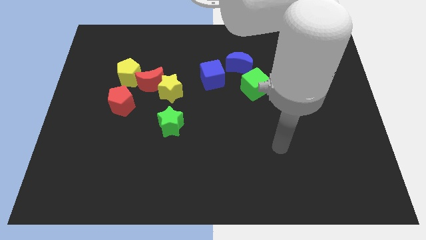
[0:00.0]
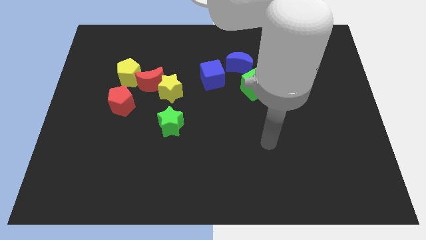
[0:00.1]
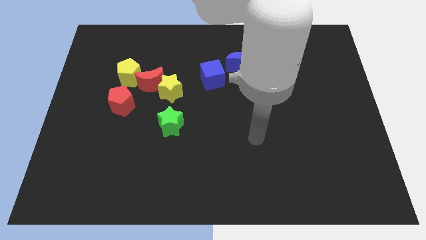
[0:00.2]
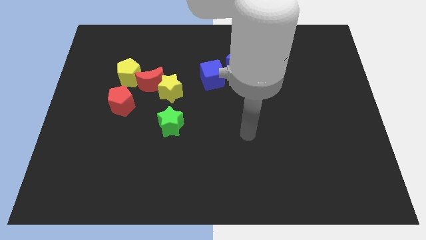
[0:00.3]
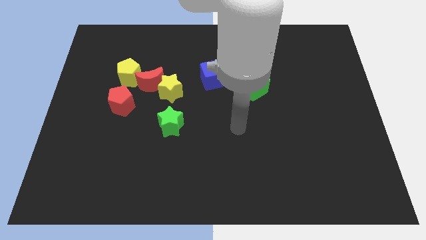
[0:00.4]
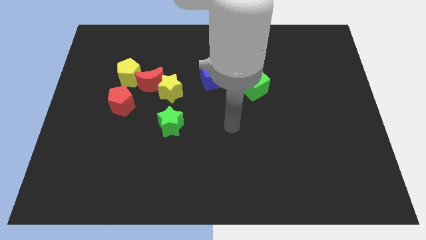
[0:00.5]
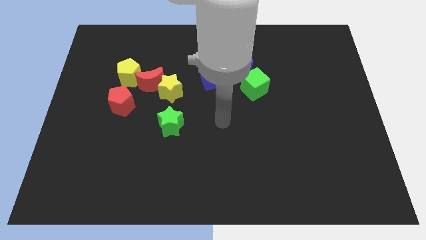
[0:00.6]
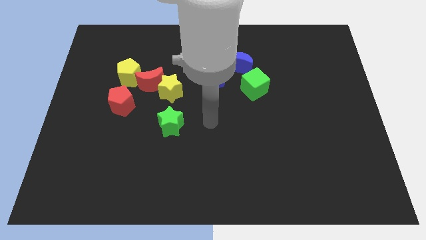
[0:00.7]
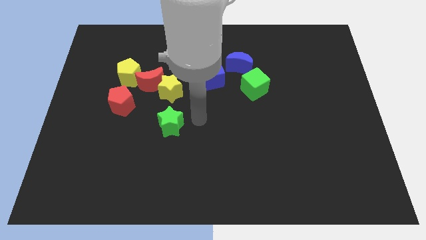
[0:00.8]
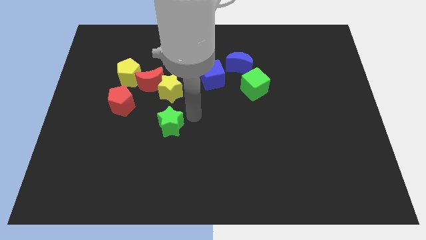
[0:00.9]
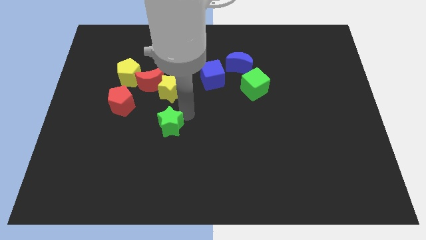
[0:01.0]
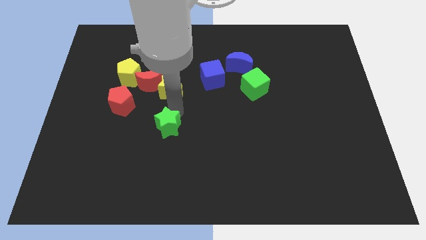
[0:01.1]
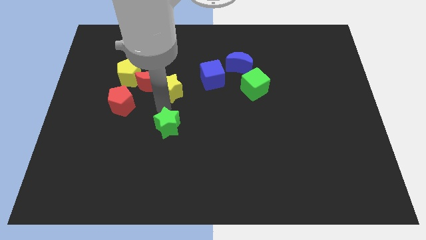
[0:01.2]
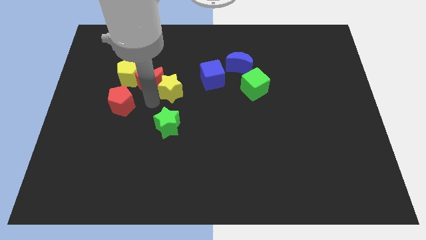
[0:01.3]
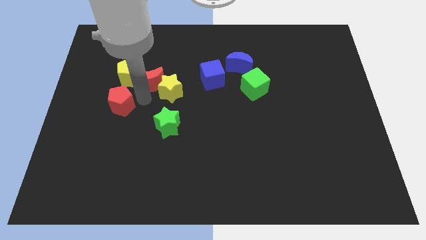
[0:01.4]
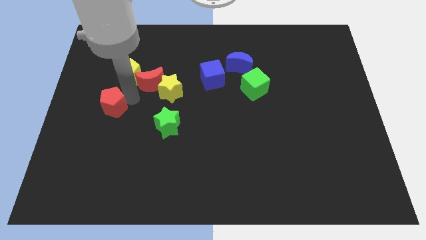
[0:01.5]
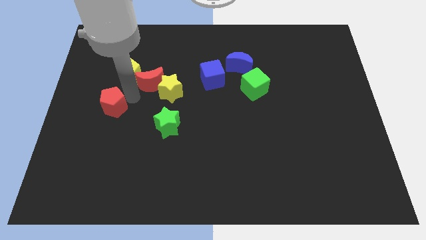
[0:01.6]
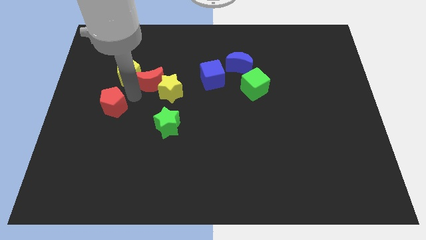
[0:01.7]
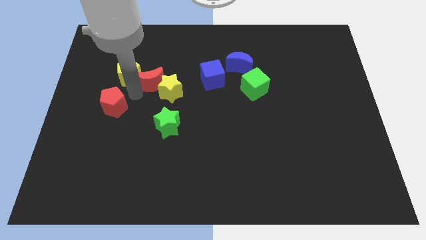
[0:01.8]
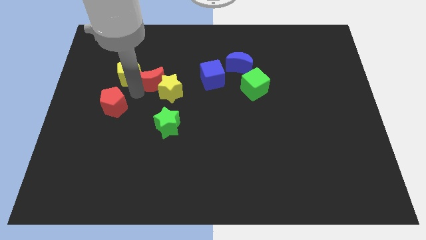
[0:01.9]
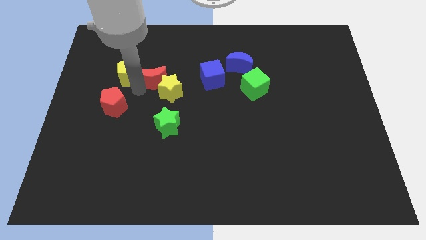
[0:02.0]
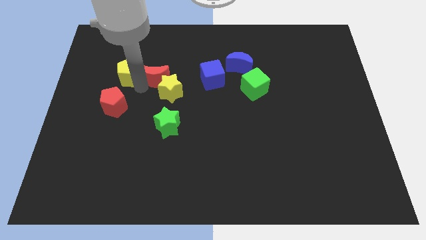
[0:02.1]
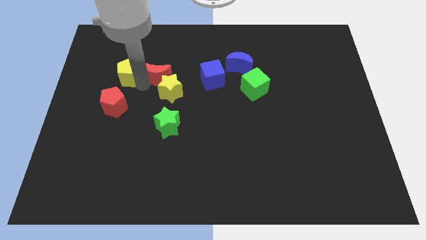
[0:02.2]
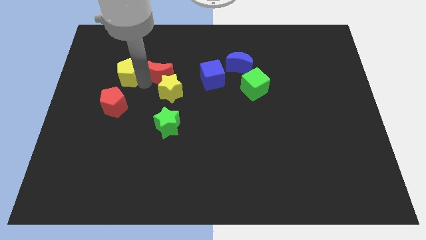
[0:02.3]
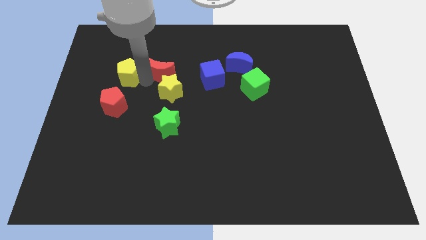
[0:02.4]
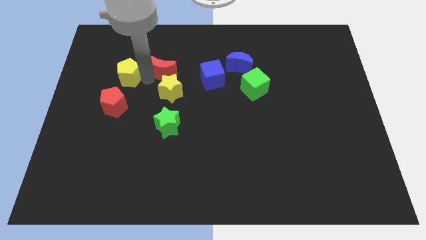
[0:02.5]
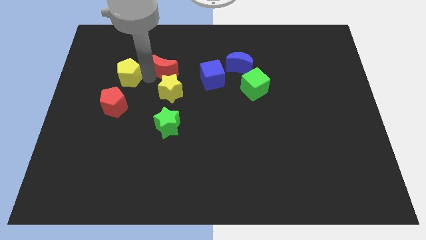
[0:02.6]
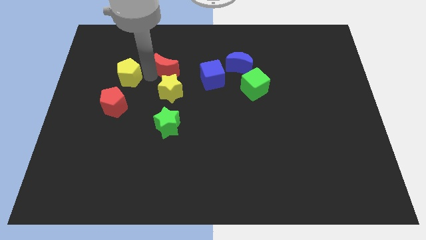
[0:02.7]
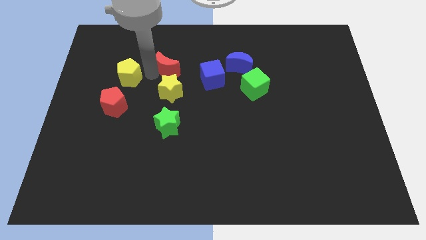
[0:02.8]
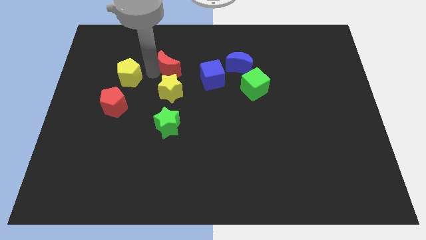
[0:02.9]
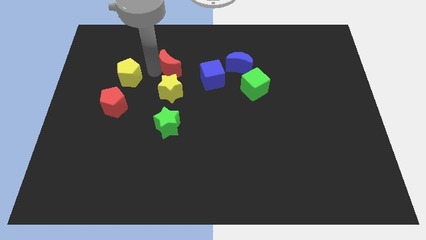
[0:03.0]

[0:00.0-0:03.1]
move the red moon away from the group of blocks

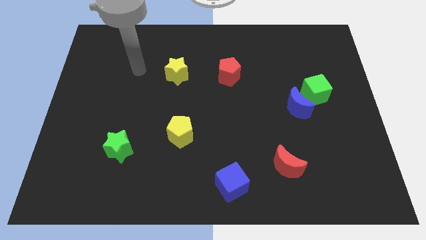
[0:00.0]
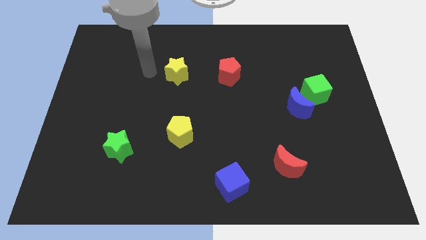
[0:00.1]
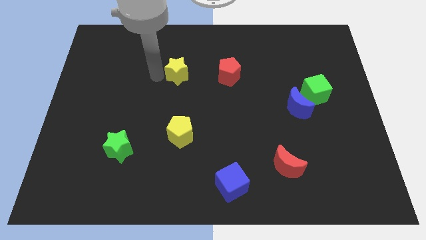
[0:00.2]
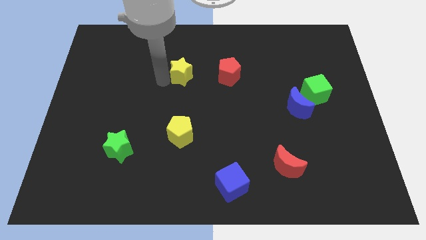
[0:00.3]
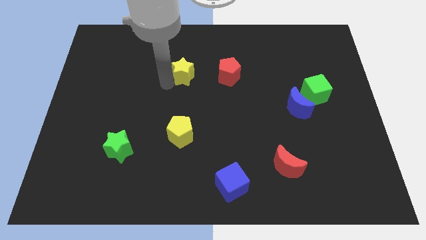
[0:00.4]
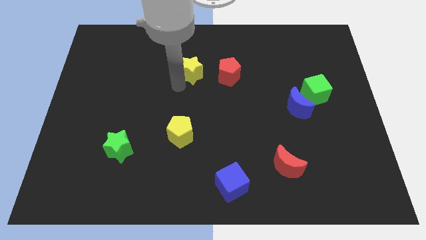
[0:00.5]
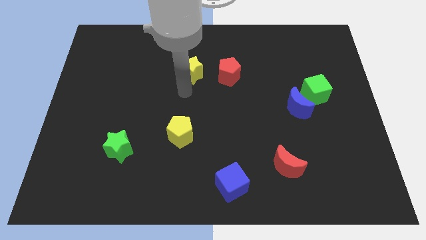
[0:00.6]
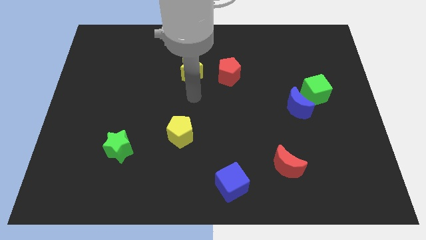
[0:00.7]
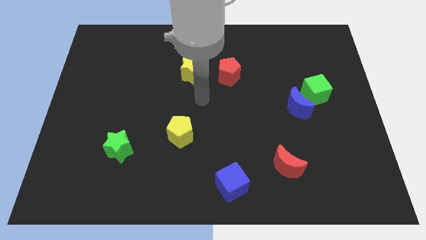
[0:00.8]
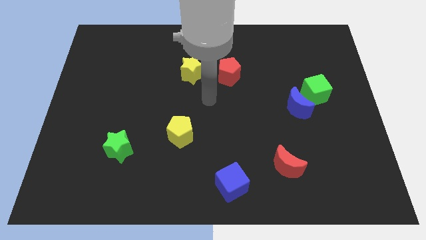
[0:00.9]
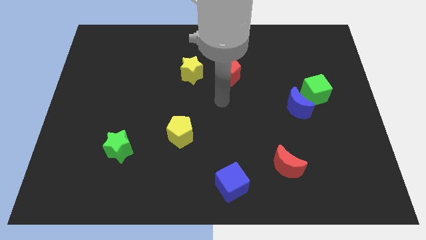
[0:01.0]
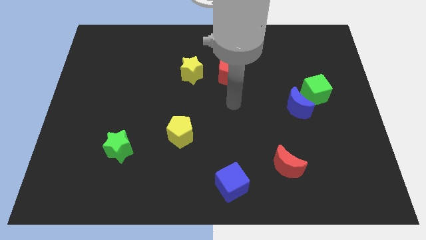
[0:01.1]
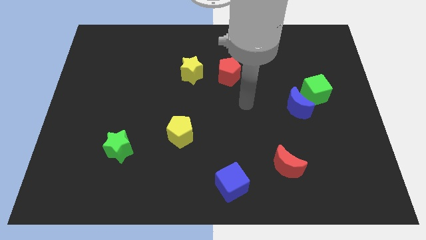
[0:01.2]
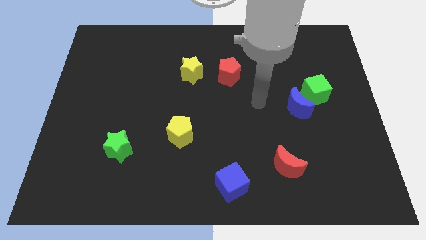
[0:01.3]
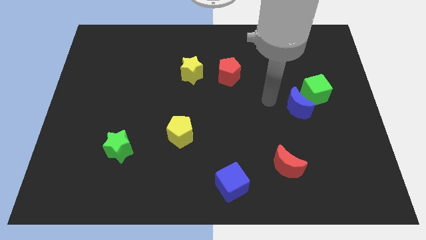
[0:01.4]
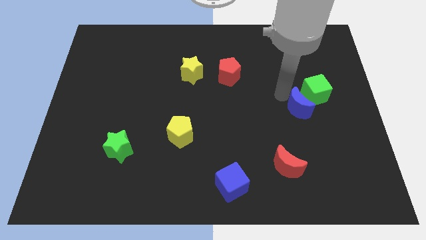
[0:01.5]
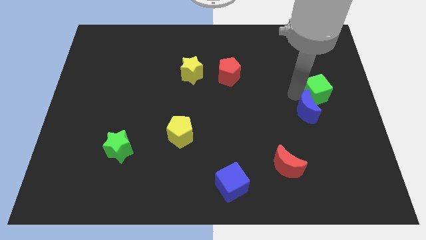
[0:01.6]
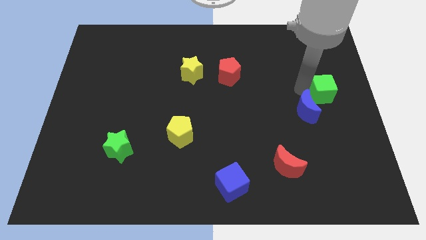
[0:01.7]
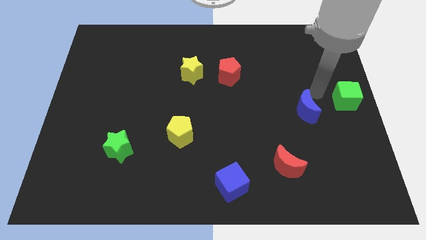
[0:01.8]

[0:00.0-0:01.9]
separate the blue moon from the green cube

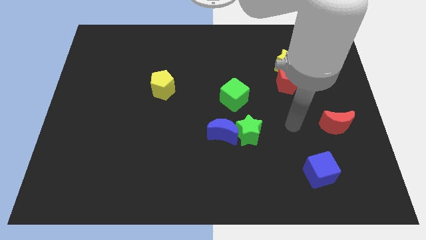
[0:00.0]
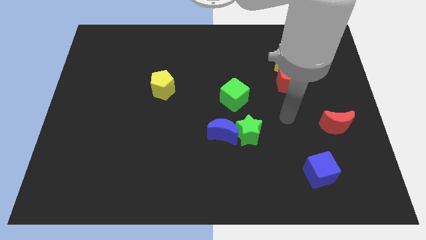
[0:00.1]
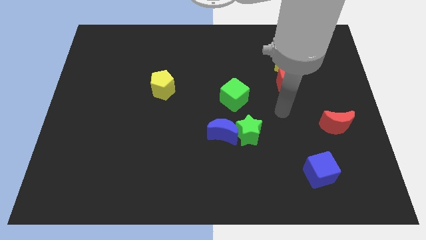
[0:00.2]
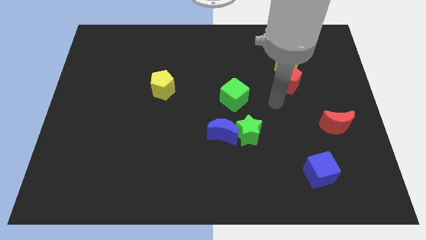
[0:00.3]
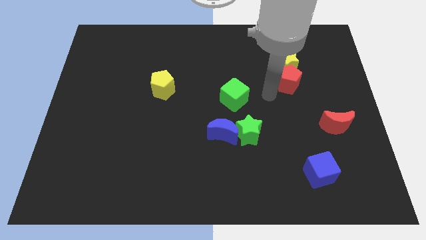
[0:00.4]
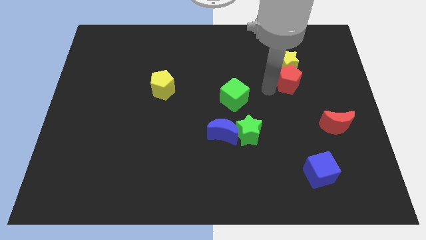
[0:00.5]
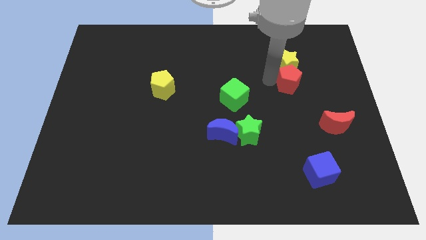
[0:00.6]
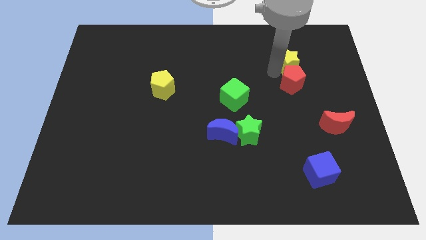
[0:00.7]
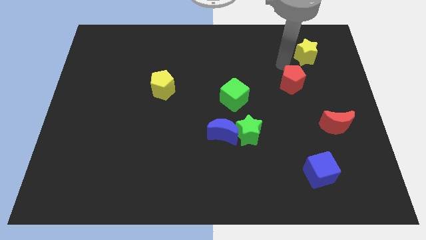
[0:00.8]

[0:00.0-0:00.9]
pull the red pentagon apart from the yellow star

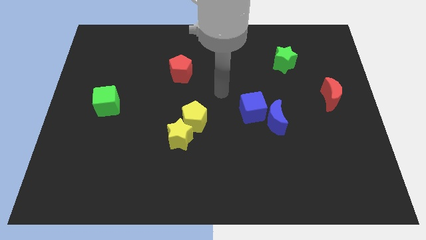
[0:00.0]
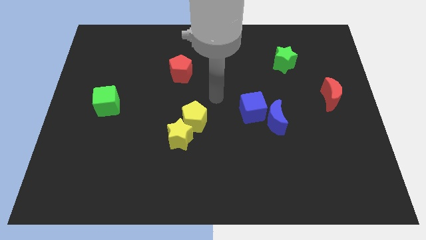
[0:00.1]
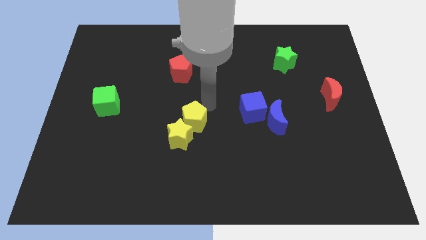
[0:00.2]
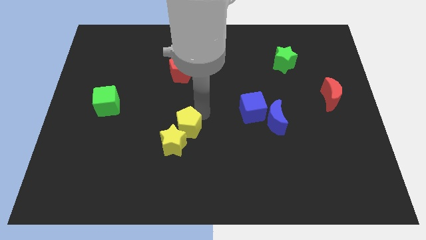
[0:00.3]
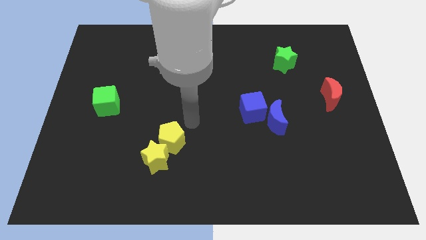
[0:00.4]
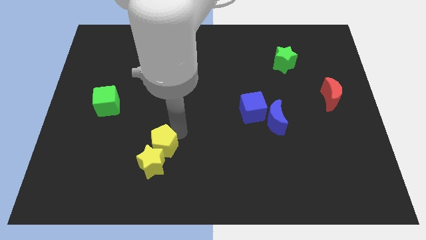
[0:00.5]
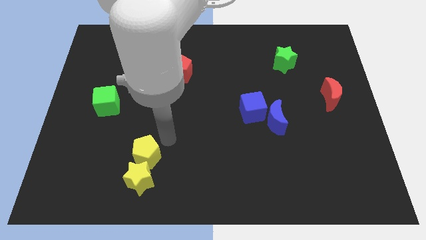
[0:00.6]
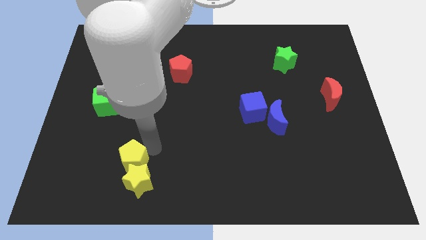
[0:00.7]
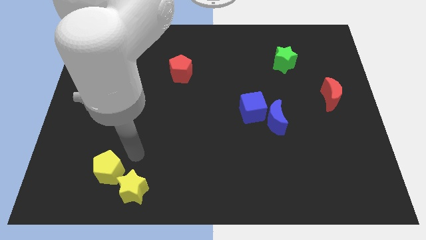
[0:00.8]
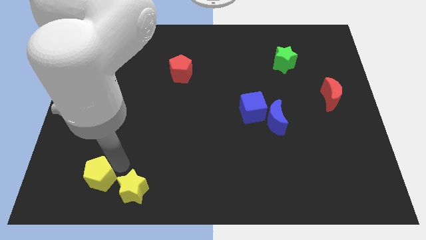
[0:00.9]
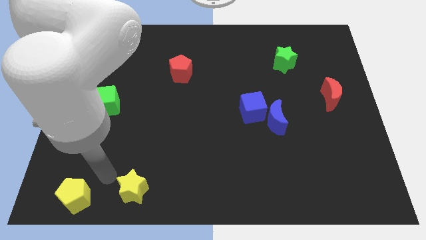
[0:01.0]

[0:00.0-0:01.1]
move the yellow star away from the yellow pentagon

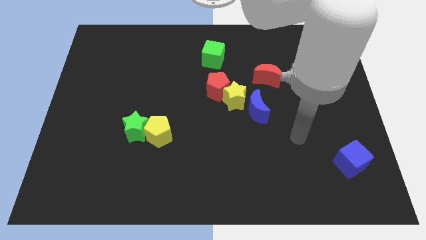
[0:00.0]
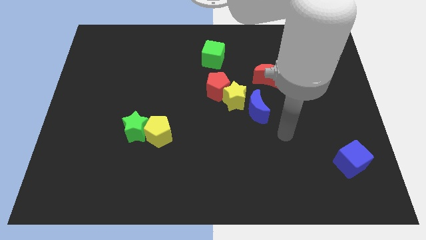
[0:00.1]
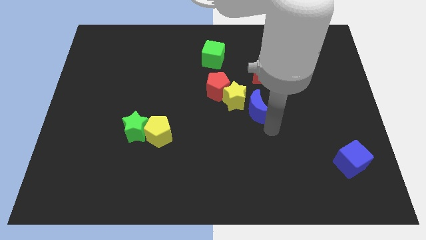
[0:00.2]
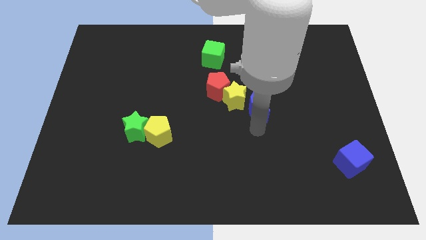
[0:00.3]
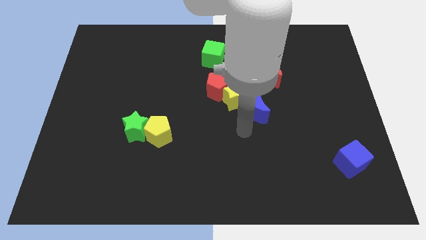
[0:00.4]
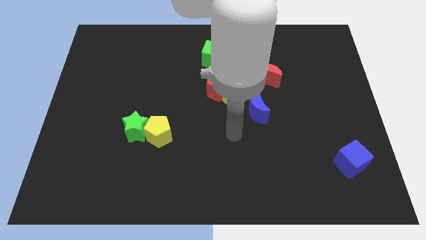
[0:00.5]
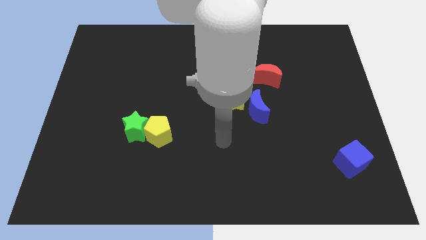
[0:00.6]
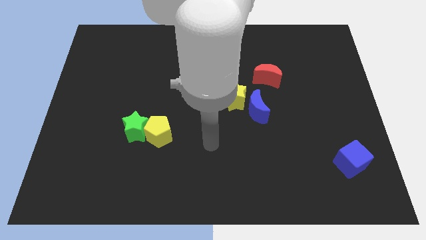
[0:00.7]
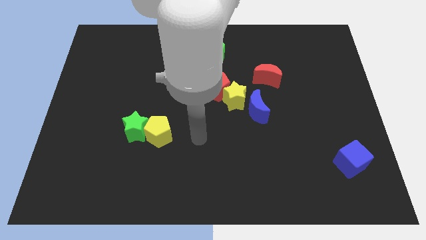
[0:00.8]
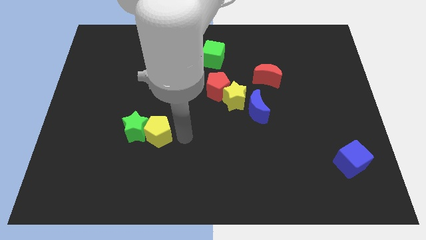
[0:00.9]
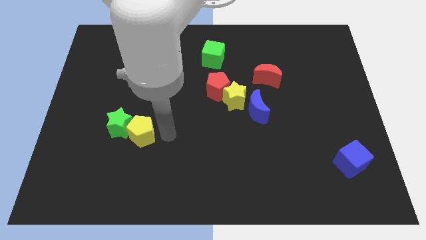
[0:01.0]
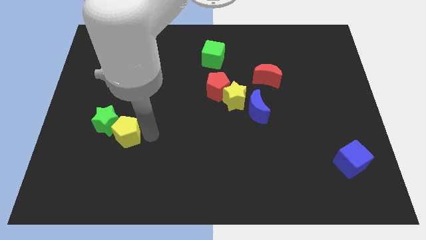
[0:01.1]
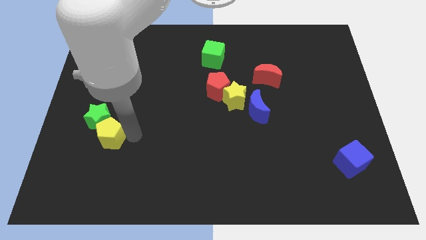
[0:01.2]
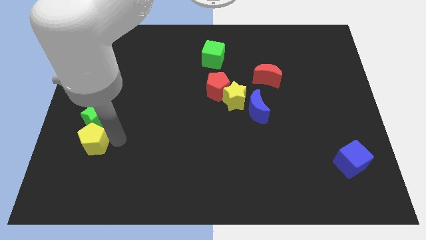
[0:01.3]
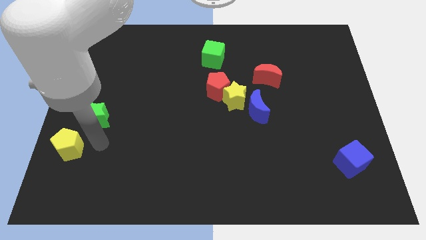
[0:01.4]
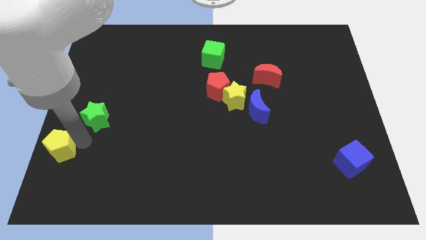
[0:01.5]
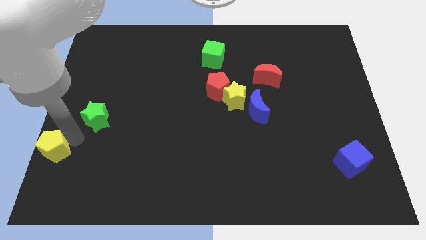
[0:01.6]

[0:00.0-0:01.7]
move the green star away from the yellow pentagon

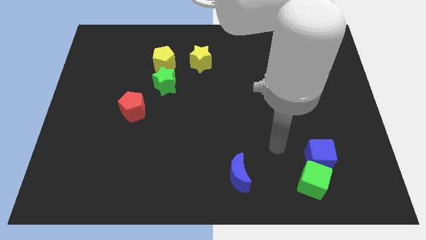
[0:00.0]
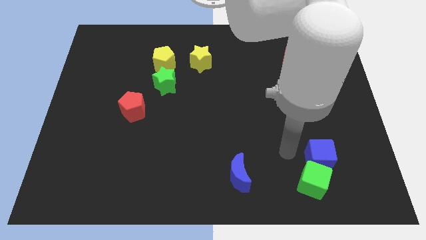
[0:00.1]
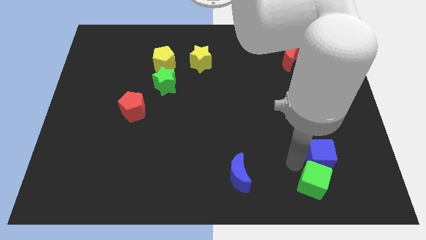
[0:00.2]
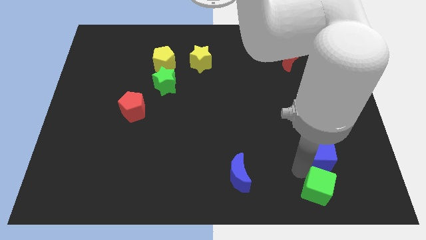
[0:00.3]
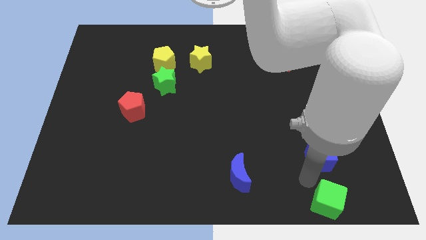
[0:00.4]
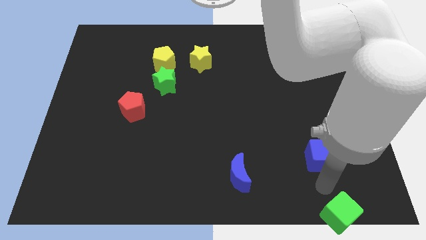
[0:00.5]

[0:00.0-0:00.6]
pull the blue cube apart from the green cube
